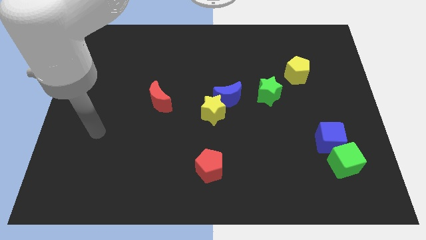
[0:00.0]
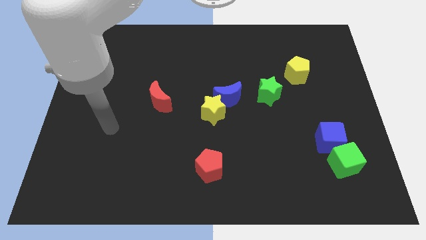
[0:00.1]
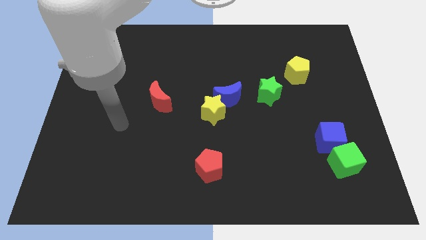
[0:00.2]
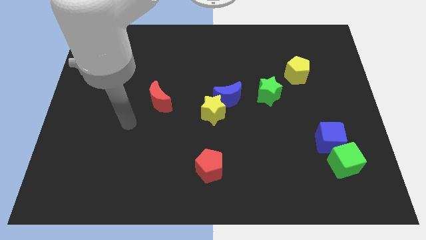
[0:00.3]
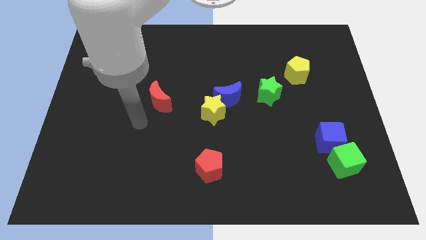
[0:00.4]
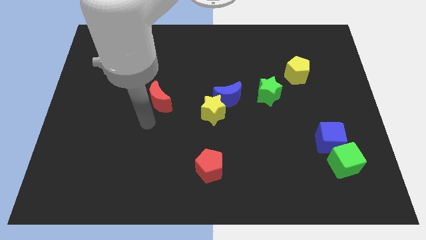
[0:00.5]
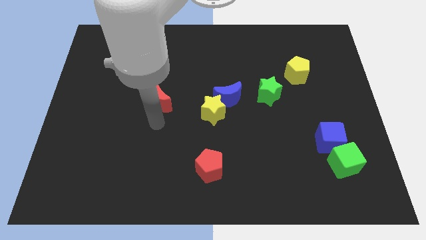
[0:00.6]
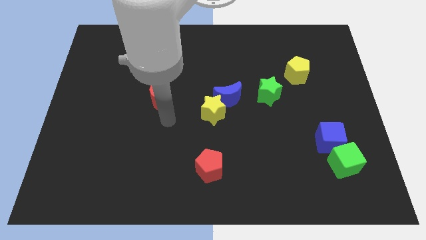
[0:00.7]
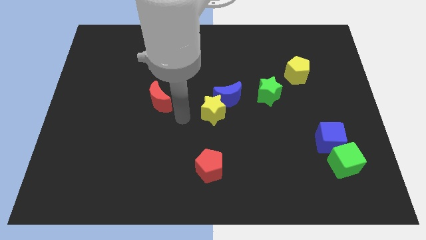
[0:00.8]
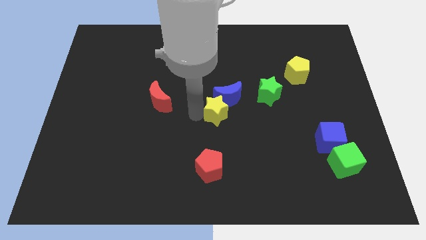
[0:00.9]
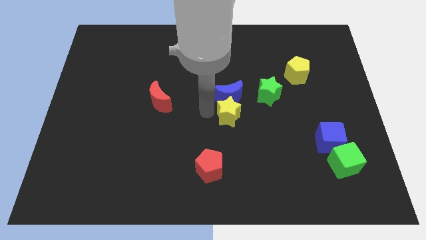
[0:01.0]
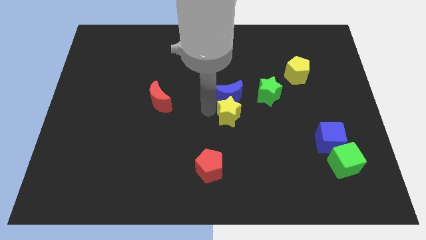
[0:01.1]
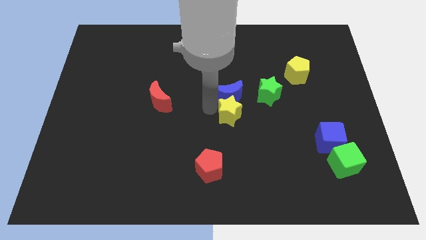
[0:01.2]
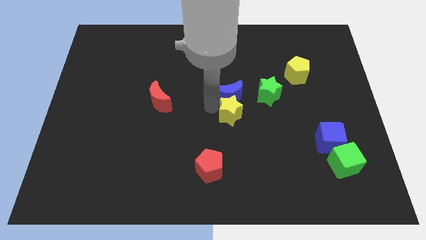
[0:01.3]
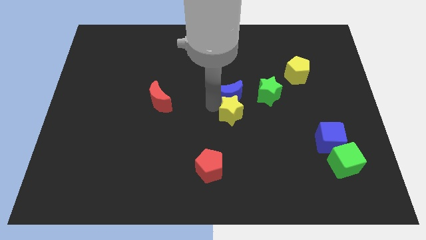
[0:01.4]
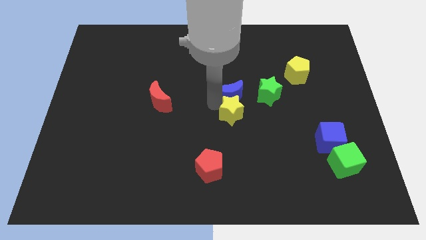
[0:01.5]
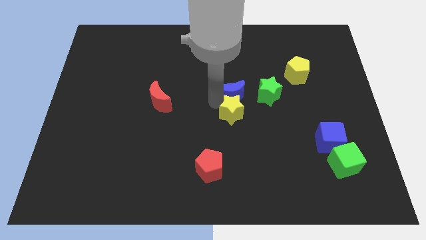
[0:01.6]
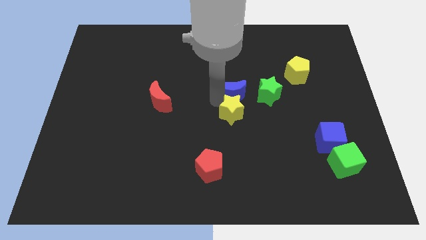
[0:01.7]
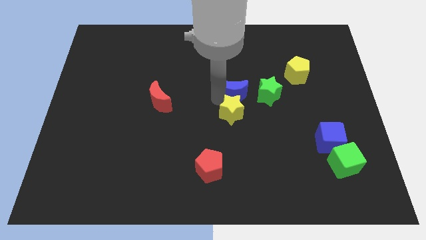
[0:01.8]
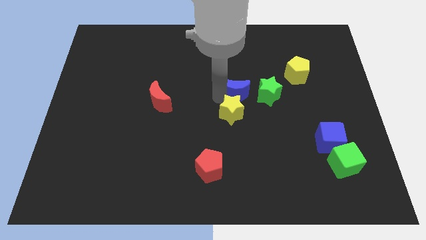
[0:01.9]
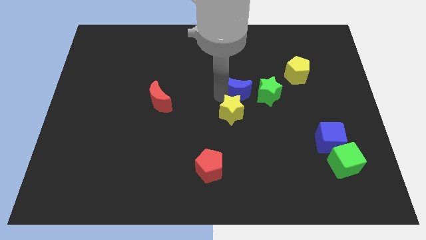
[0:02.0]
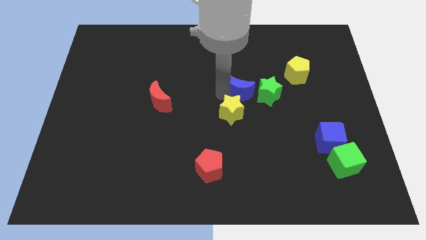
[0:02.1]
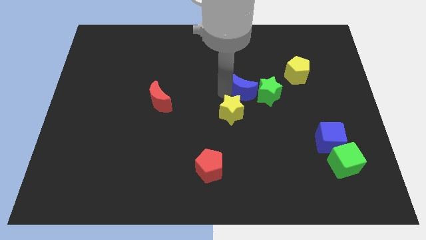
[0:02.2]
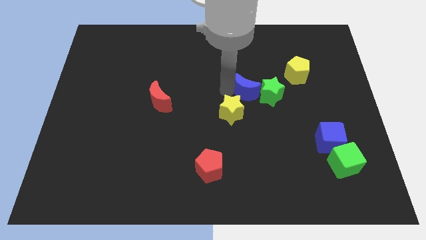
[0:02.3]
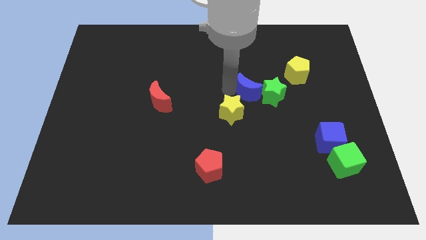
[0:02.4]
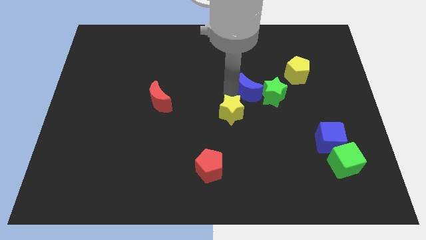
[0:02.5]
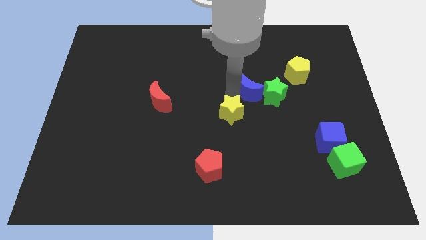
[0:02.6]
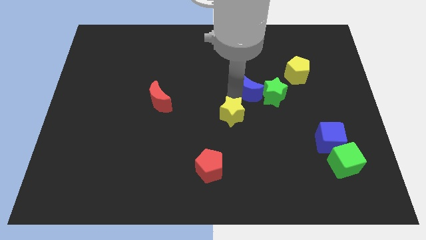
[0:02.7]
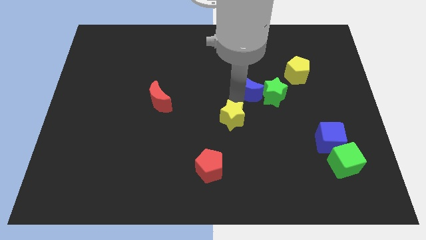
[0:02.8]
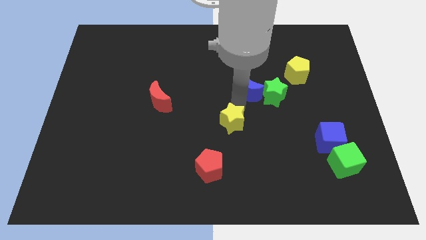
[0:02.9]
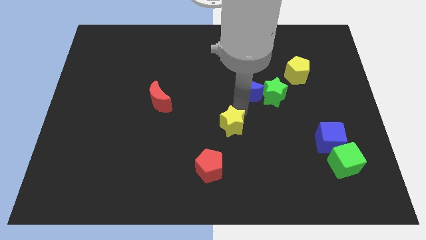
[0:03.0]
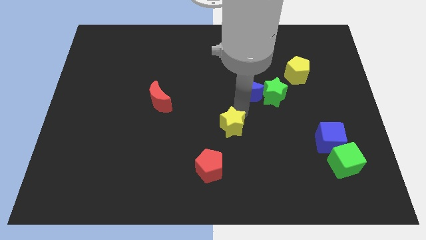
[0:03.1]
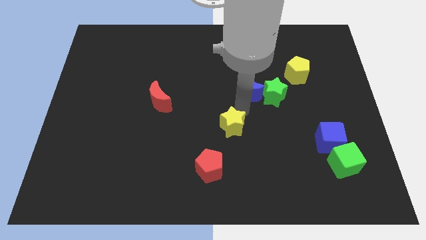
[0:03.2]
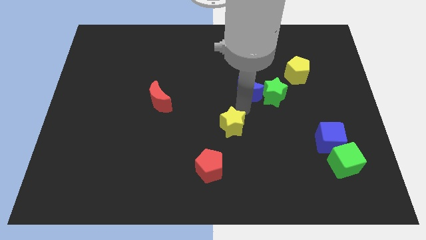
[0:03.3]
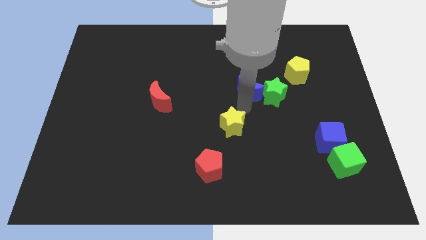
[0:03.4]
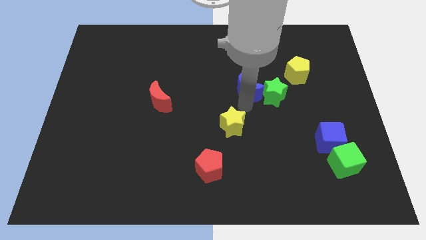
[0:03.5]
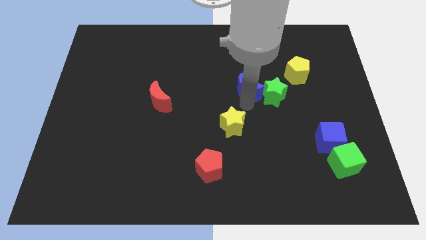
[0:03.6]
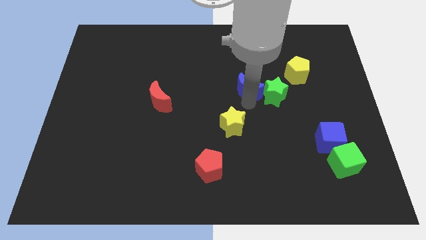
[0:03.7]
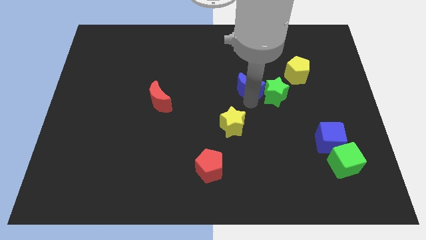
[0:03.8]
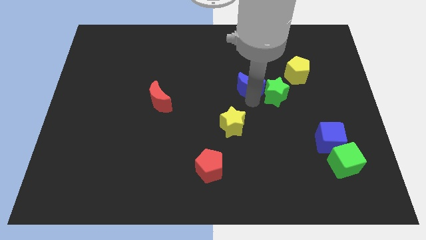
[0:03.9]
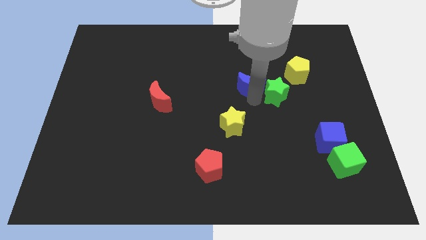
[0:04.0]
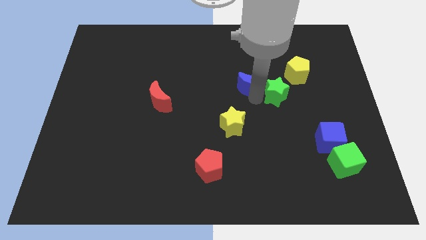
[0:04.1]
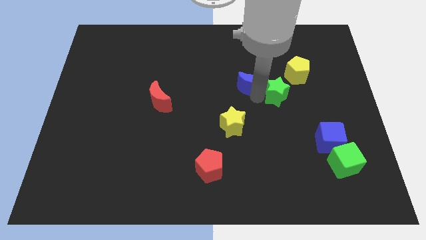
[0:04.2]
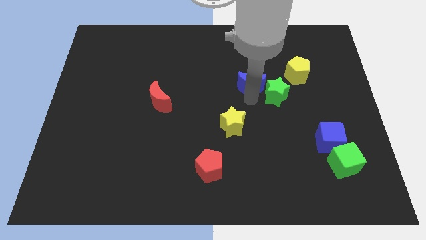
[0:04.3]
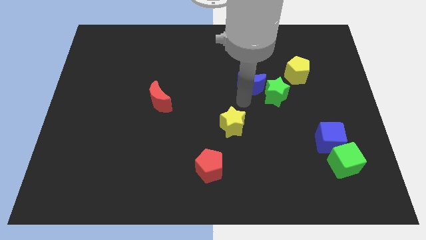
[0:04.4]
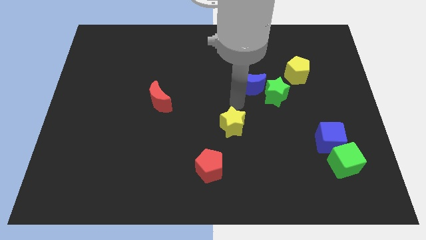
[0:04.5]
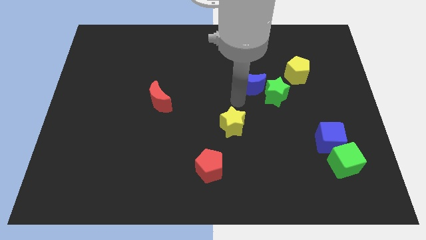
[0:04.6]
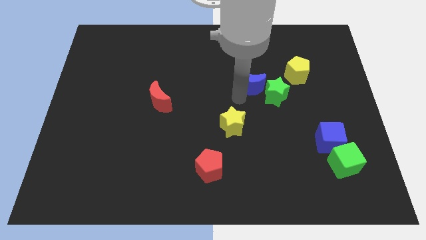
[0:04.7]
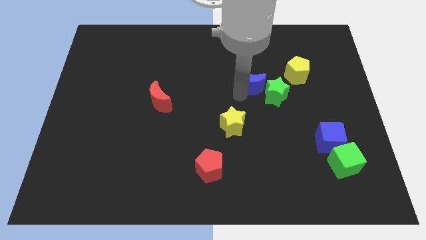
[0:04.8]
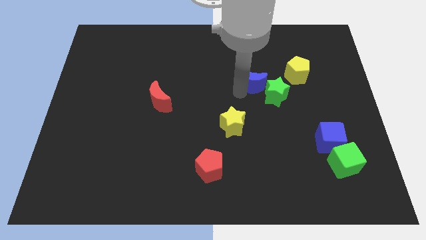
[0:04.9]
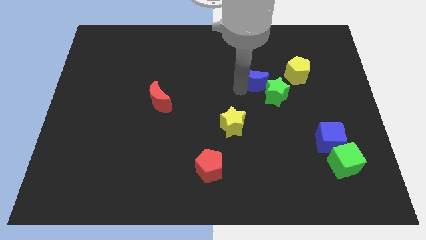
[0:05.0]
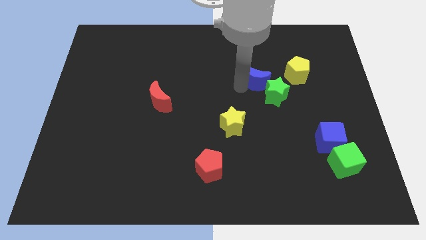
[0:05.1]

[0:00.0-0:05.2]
slide the blue moon to the top side of the green star

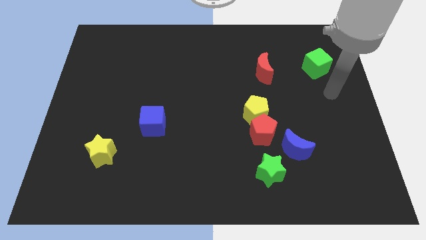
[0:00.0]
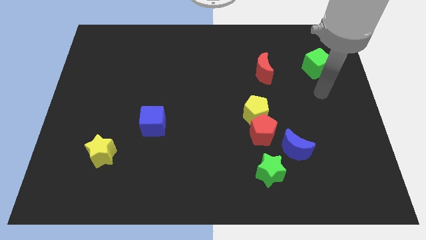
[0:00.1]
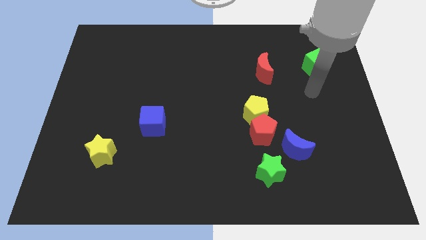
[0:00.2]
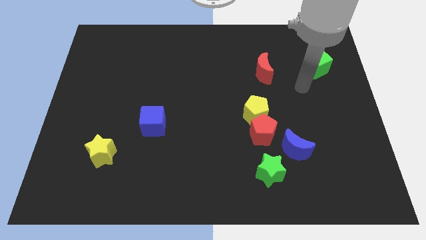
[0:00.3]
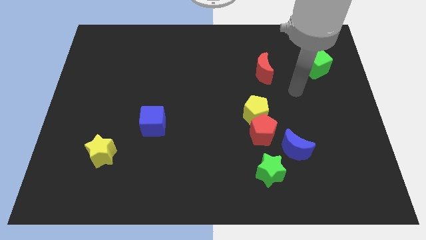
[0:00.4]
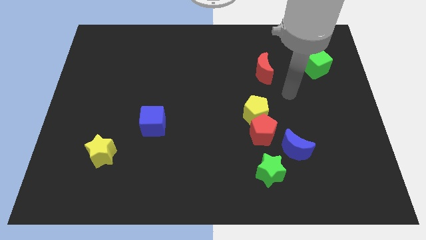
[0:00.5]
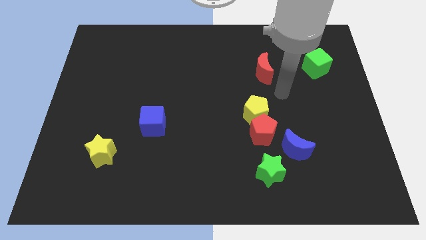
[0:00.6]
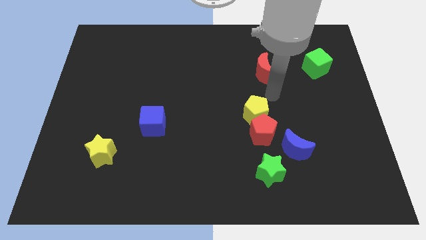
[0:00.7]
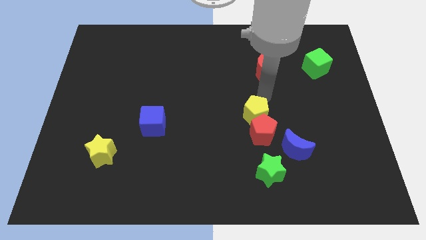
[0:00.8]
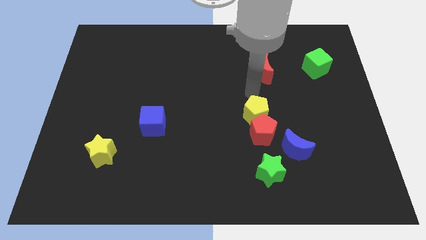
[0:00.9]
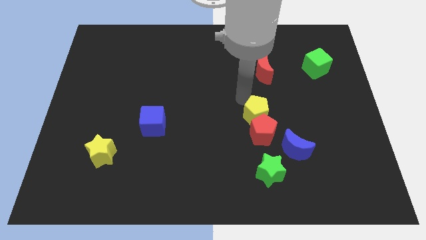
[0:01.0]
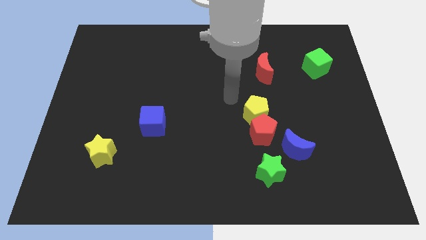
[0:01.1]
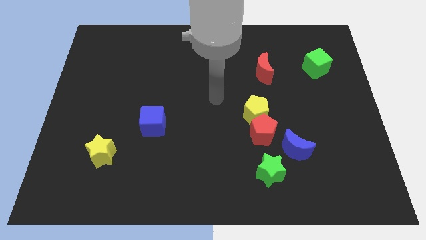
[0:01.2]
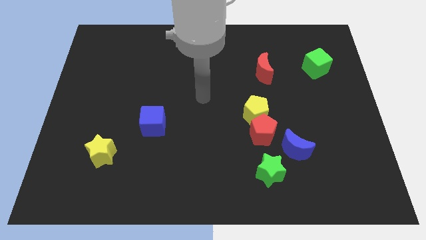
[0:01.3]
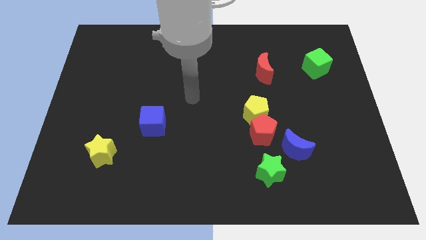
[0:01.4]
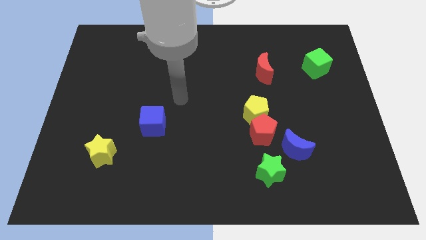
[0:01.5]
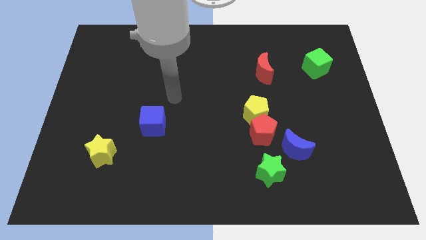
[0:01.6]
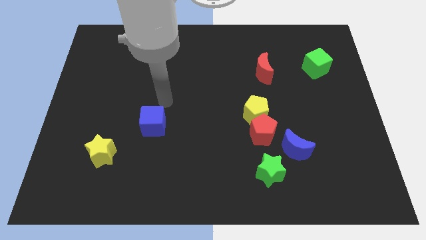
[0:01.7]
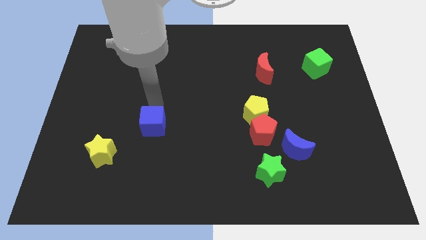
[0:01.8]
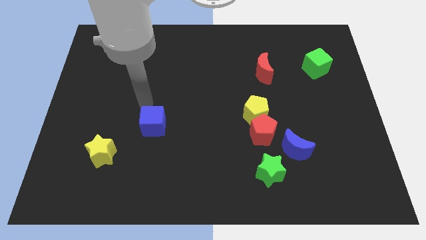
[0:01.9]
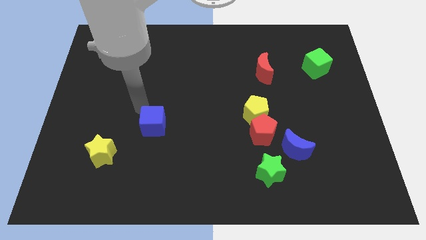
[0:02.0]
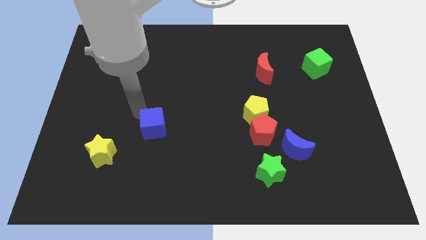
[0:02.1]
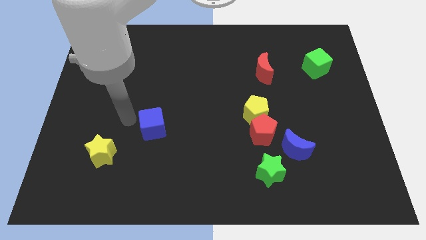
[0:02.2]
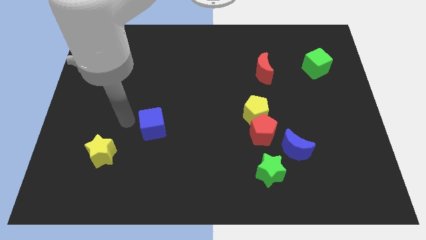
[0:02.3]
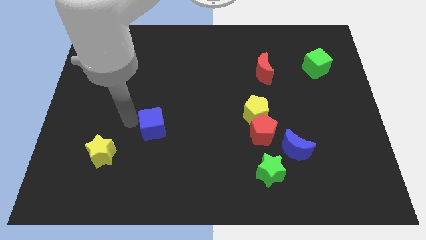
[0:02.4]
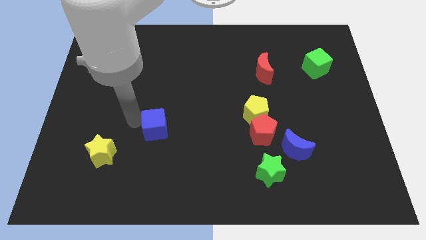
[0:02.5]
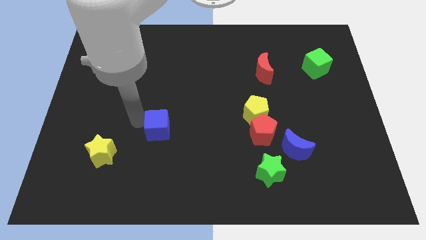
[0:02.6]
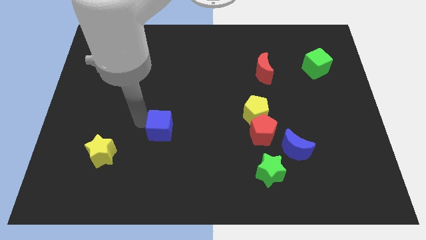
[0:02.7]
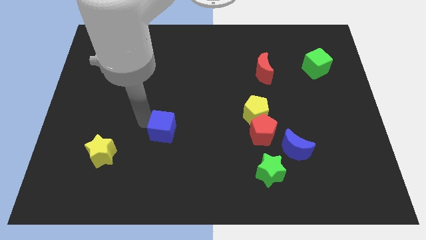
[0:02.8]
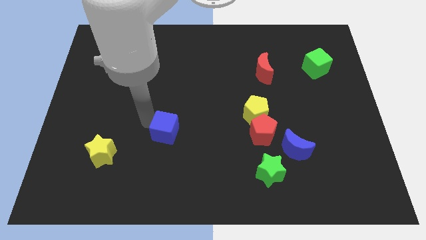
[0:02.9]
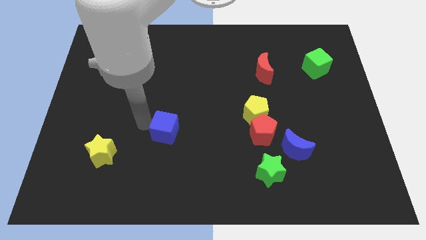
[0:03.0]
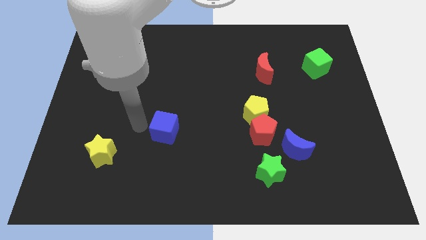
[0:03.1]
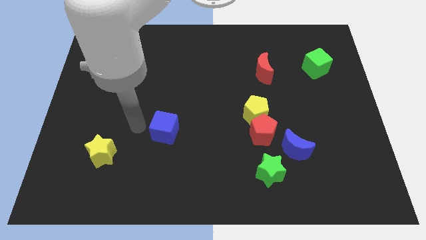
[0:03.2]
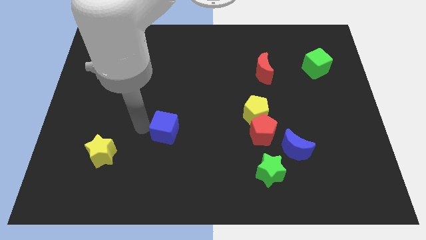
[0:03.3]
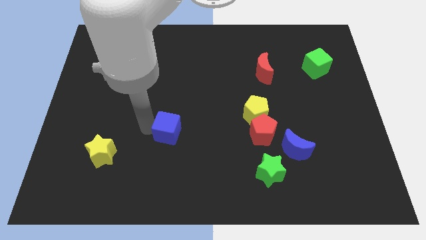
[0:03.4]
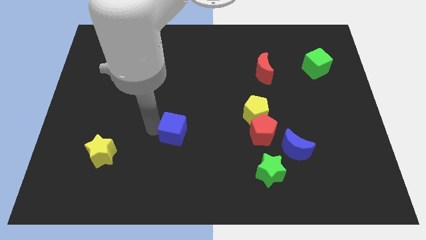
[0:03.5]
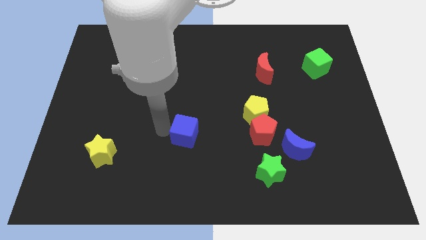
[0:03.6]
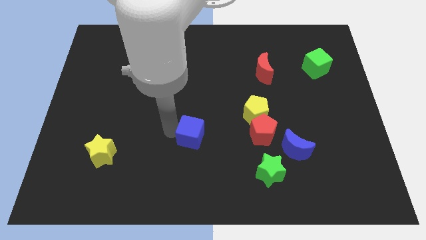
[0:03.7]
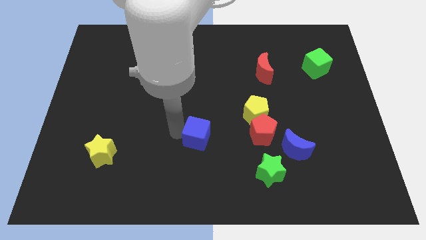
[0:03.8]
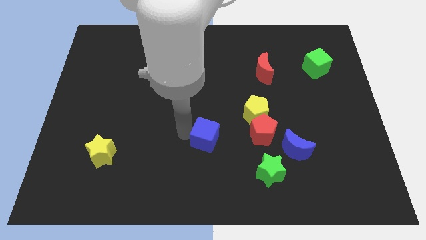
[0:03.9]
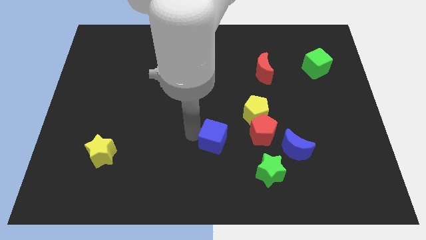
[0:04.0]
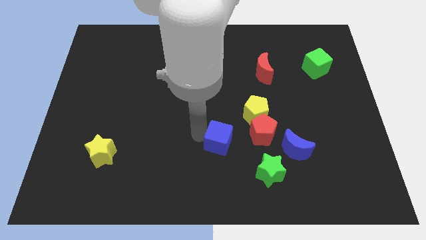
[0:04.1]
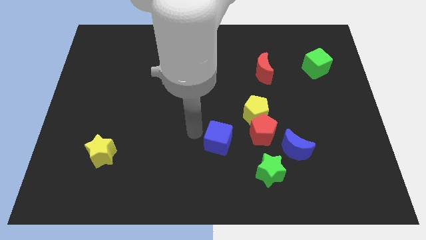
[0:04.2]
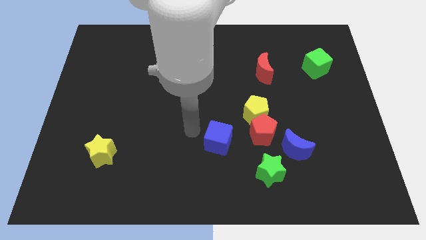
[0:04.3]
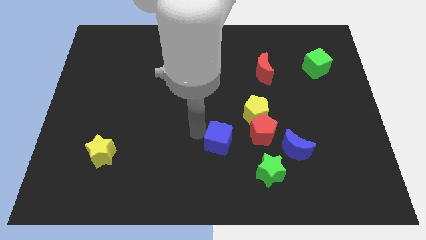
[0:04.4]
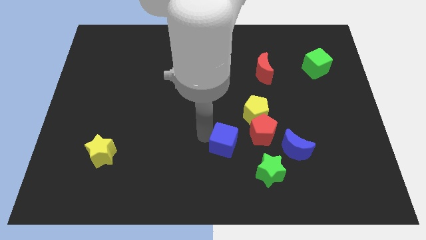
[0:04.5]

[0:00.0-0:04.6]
slide the blue cube to the top left of the green star
